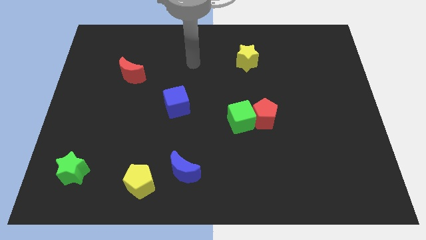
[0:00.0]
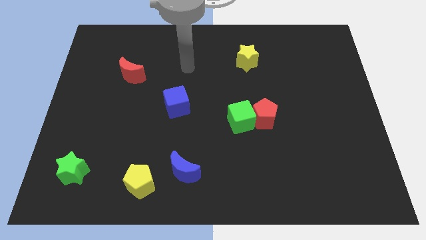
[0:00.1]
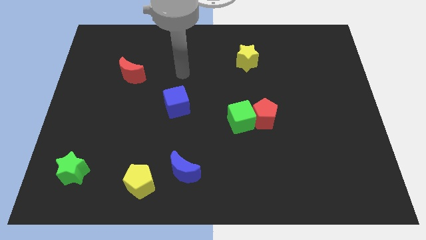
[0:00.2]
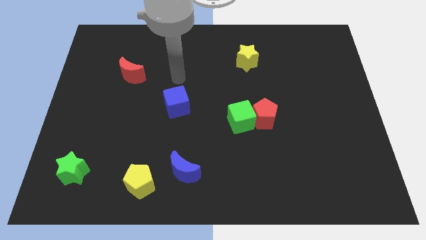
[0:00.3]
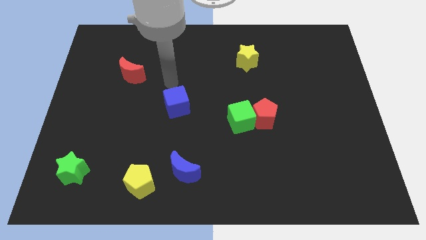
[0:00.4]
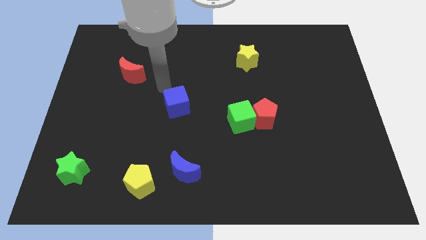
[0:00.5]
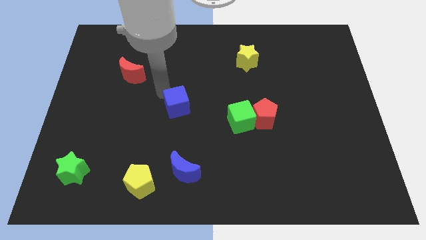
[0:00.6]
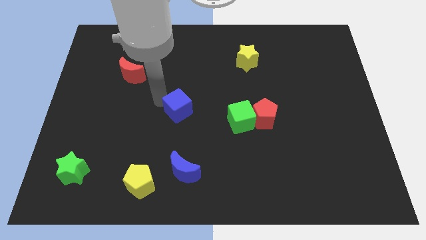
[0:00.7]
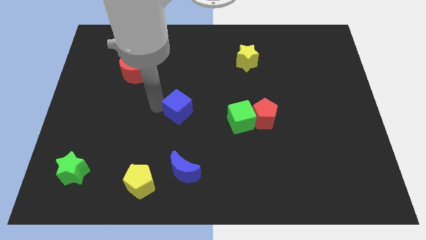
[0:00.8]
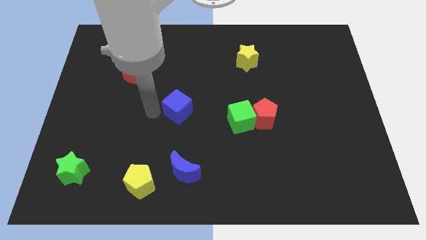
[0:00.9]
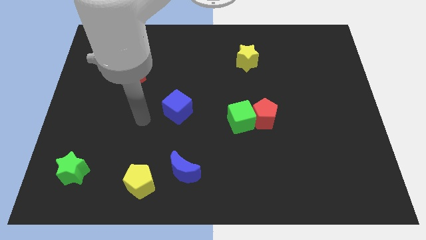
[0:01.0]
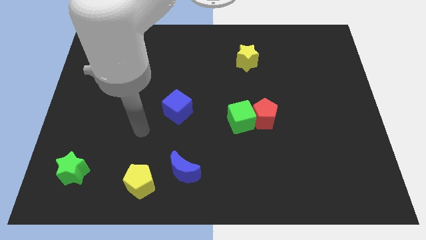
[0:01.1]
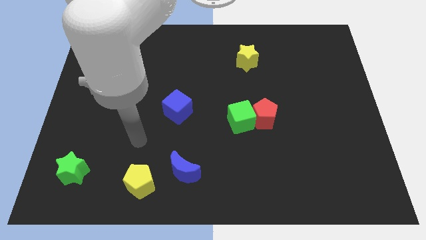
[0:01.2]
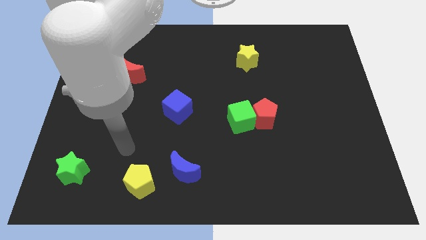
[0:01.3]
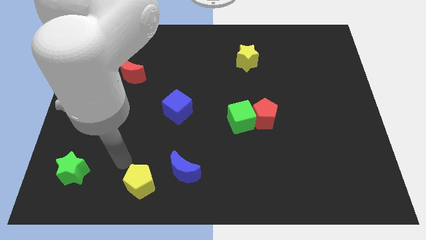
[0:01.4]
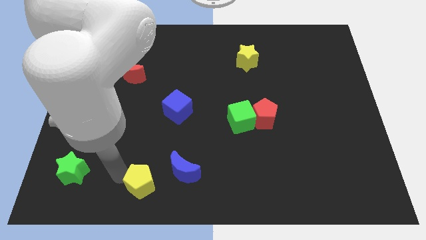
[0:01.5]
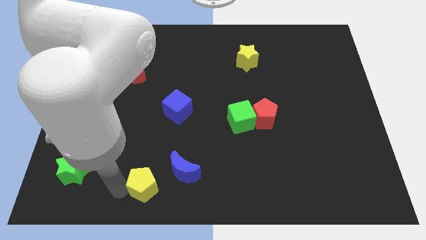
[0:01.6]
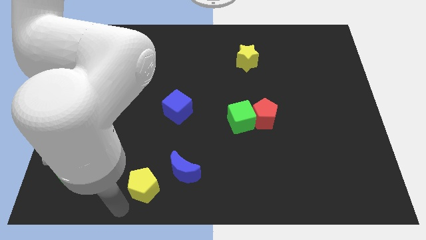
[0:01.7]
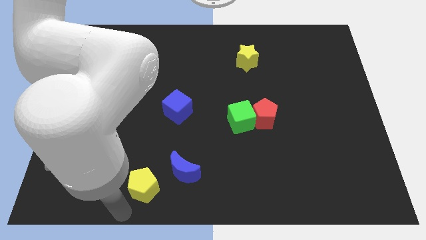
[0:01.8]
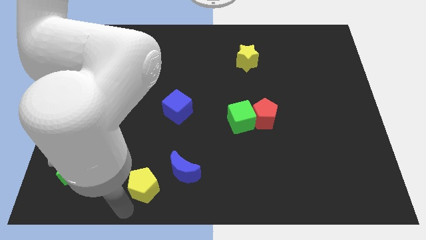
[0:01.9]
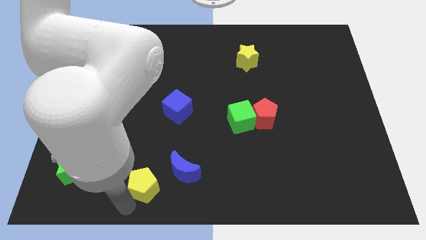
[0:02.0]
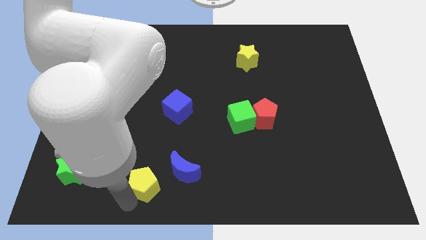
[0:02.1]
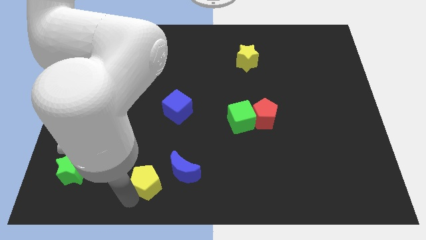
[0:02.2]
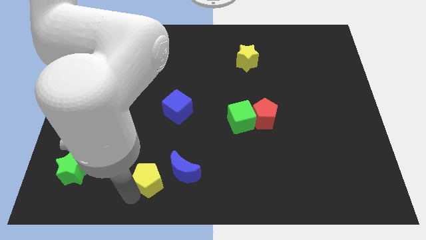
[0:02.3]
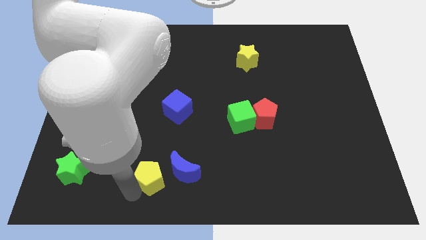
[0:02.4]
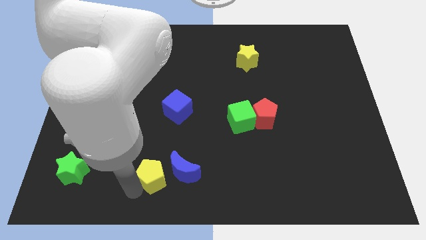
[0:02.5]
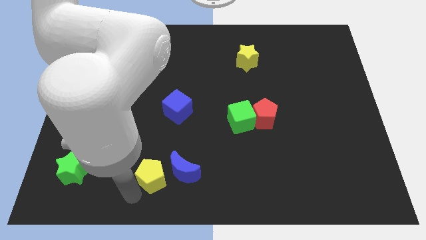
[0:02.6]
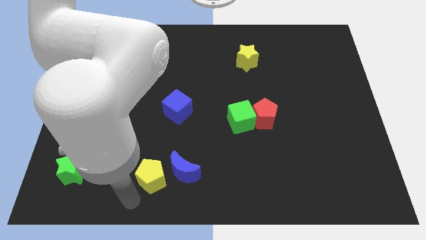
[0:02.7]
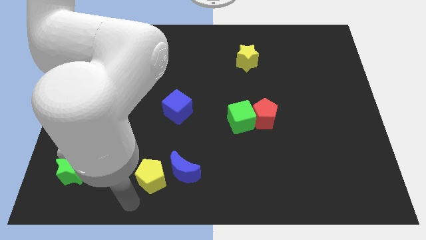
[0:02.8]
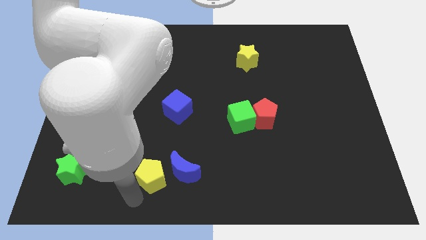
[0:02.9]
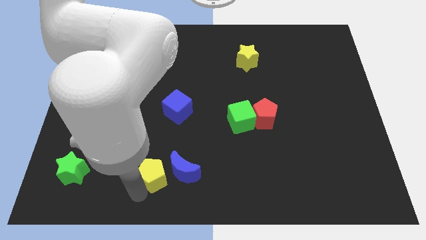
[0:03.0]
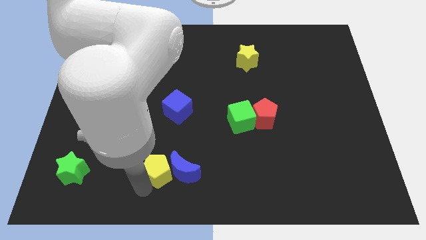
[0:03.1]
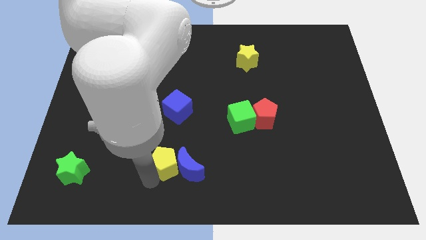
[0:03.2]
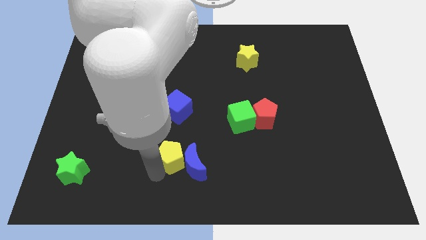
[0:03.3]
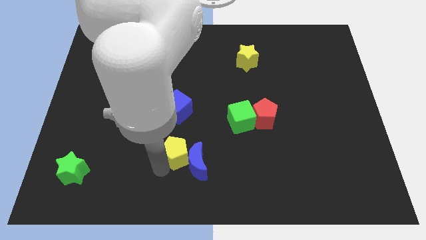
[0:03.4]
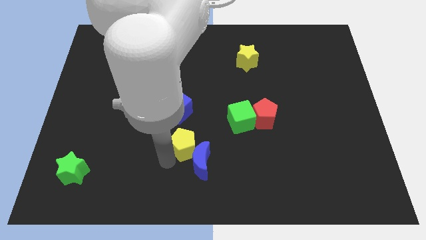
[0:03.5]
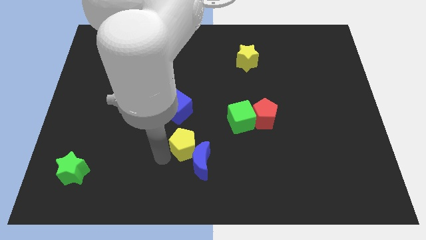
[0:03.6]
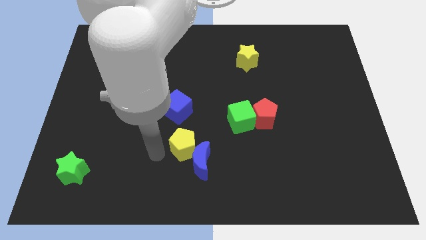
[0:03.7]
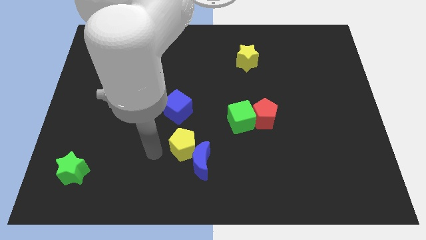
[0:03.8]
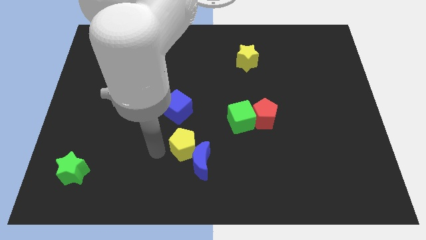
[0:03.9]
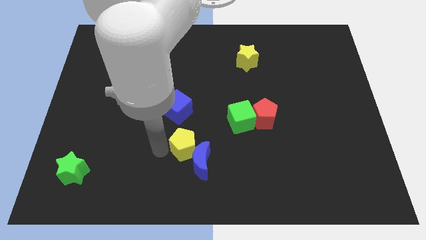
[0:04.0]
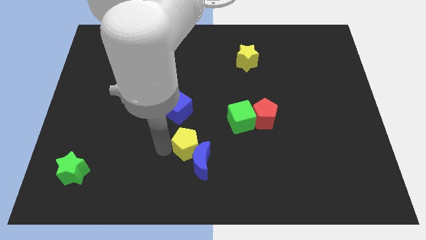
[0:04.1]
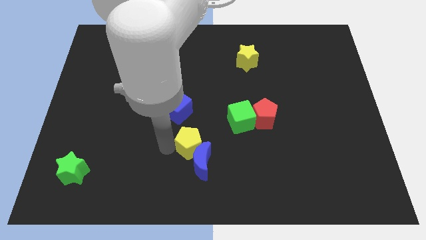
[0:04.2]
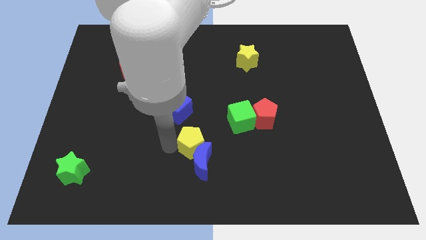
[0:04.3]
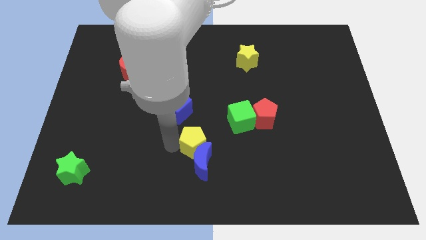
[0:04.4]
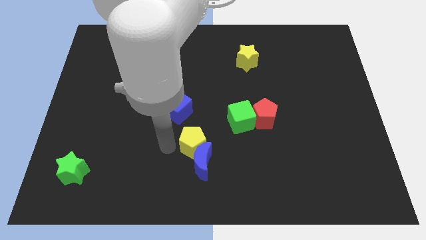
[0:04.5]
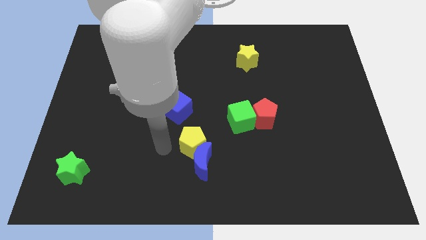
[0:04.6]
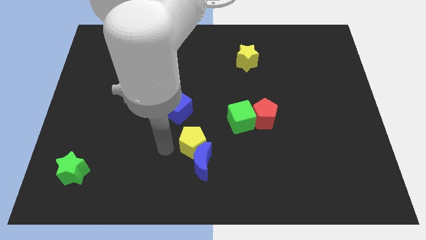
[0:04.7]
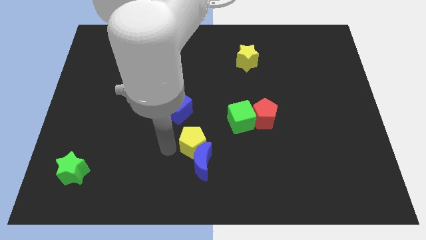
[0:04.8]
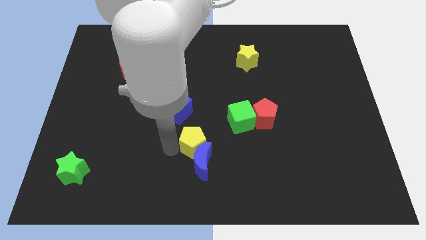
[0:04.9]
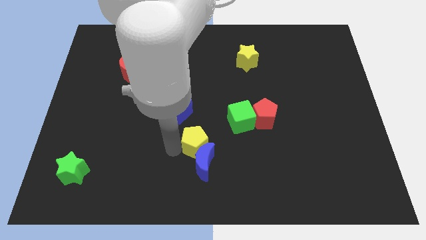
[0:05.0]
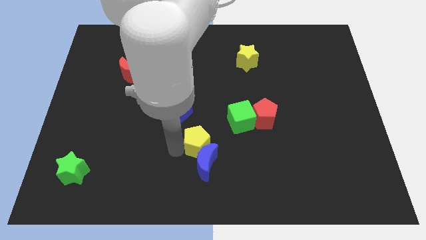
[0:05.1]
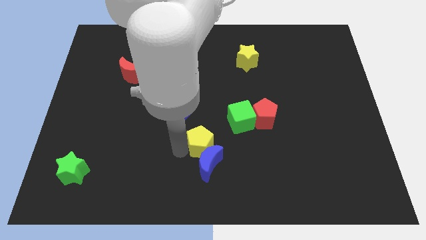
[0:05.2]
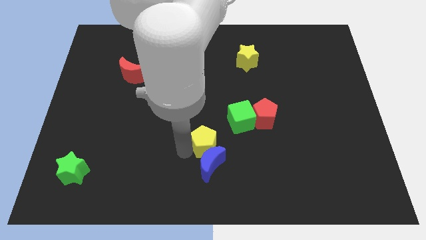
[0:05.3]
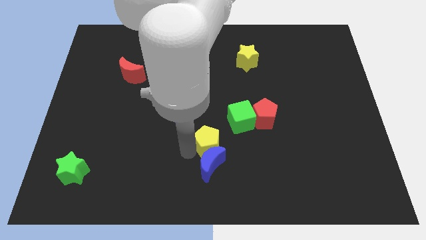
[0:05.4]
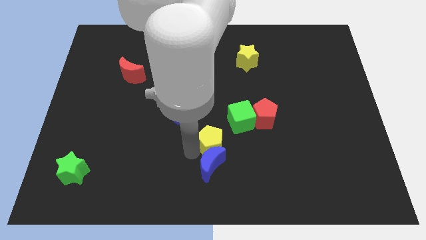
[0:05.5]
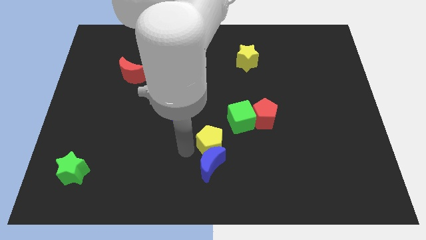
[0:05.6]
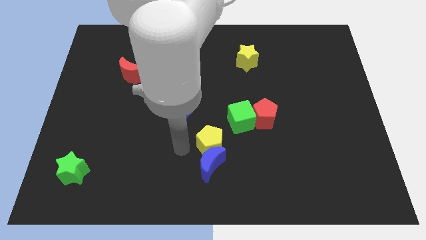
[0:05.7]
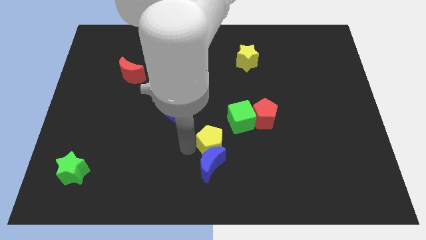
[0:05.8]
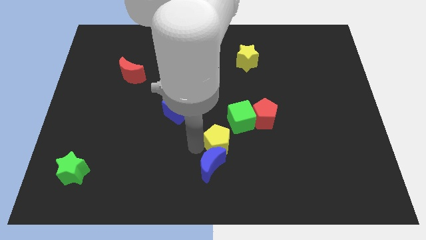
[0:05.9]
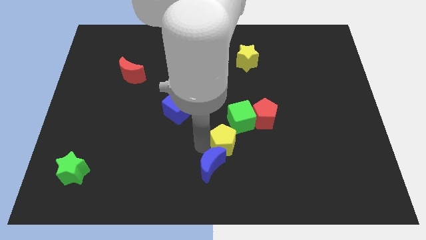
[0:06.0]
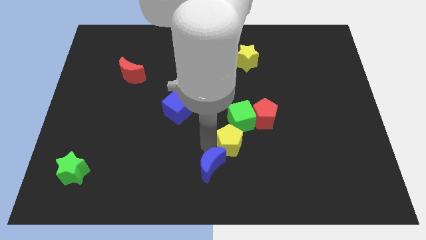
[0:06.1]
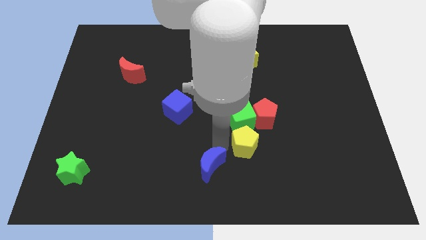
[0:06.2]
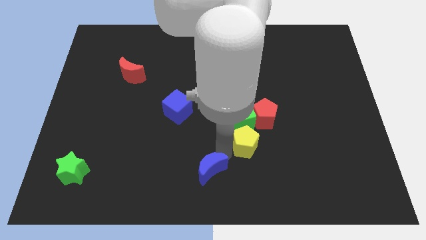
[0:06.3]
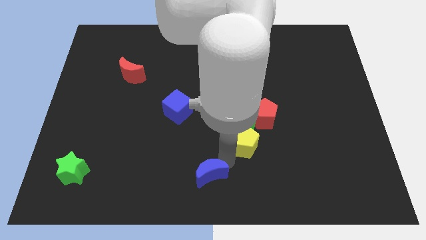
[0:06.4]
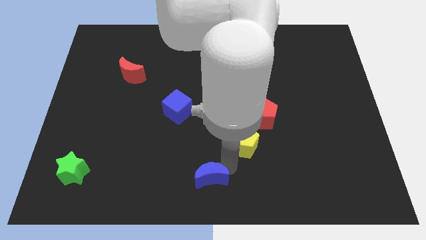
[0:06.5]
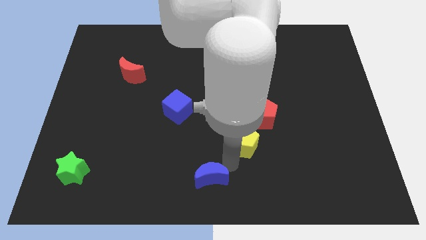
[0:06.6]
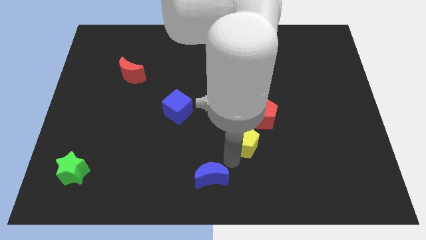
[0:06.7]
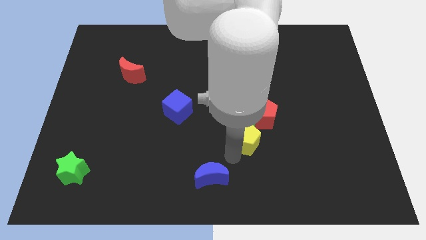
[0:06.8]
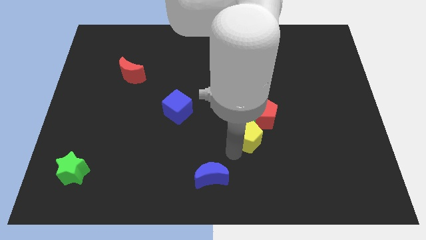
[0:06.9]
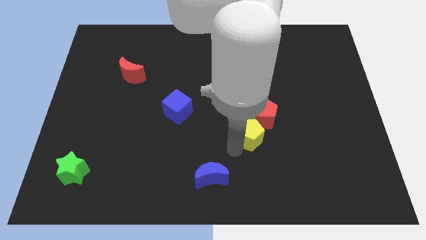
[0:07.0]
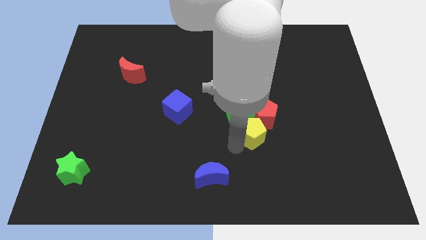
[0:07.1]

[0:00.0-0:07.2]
slide the yellow pentagon close to the red pentagon

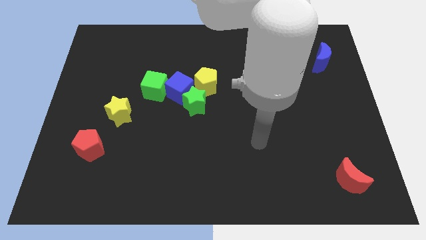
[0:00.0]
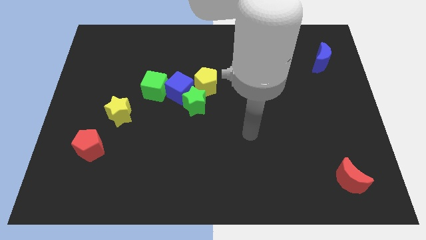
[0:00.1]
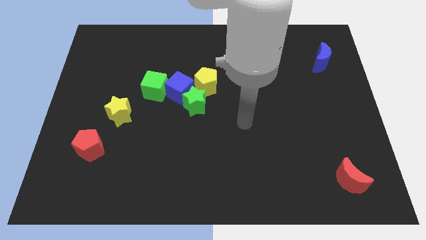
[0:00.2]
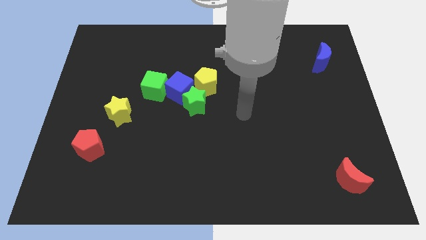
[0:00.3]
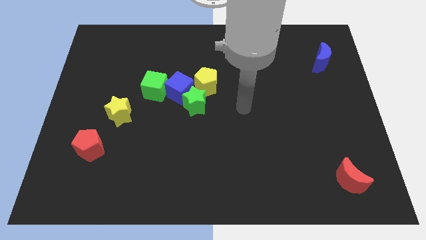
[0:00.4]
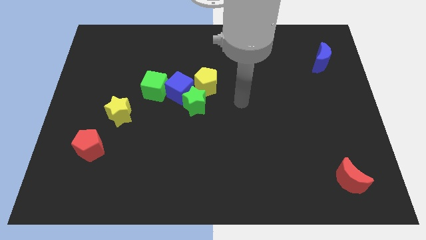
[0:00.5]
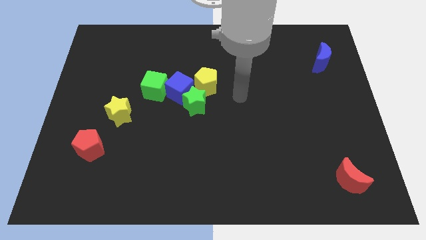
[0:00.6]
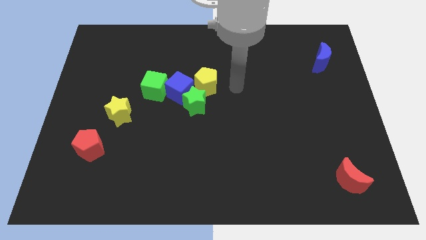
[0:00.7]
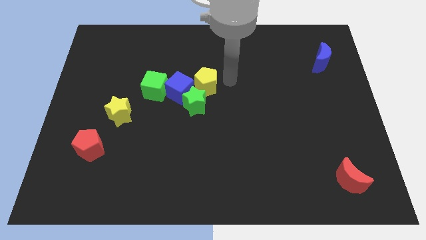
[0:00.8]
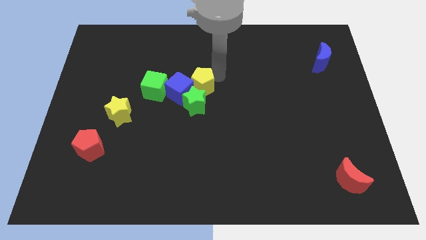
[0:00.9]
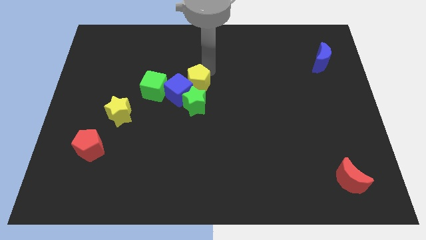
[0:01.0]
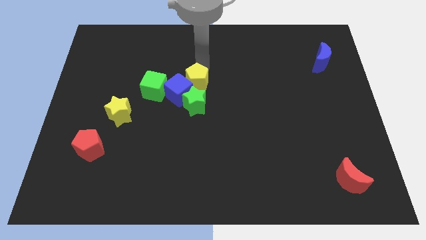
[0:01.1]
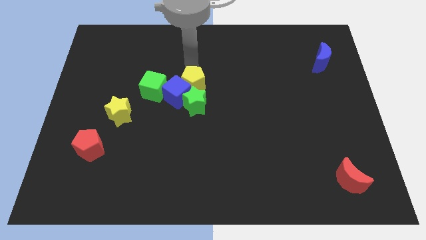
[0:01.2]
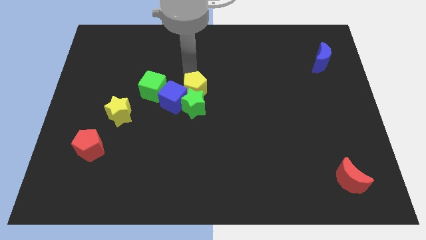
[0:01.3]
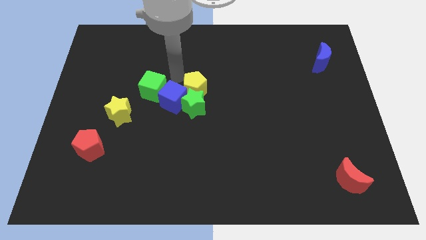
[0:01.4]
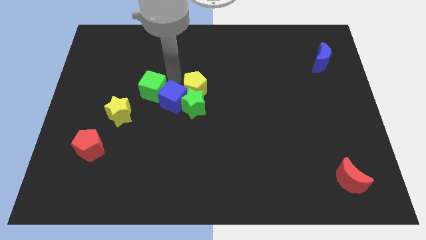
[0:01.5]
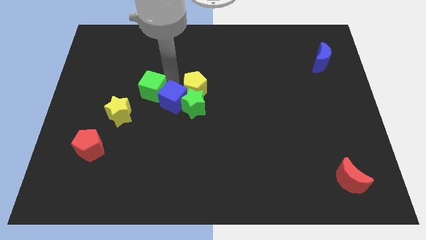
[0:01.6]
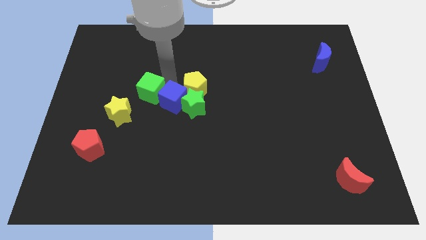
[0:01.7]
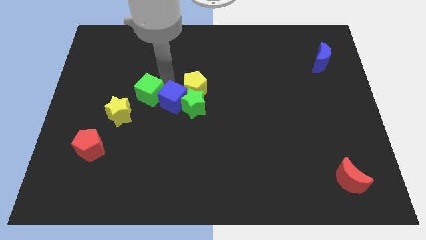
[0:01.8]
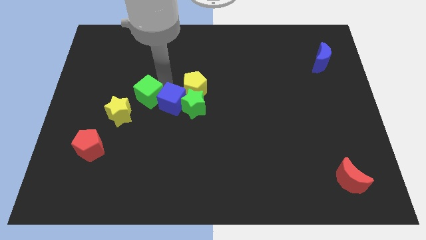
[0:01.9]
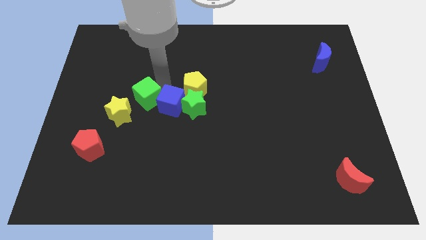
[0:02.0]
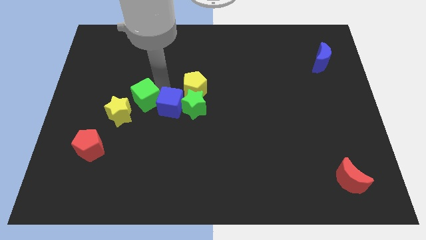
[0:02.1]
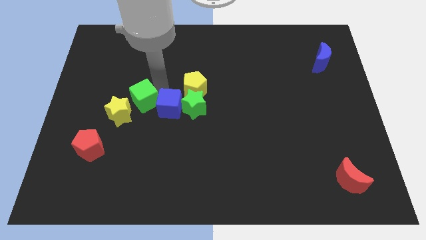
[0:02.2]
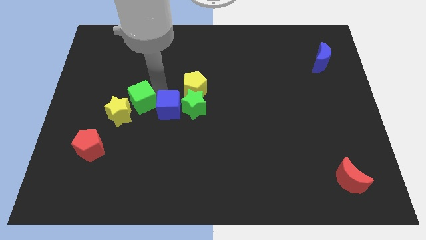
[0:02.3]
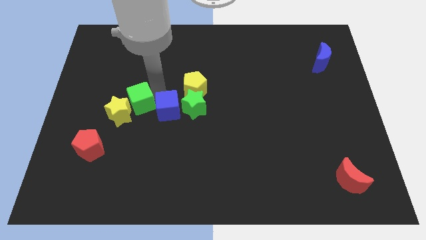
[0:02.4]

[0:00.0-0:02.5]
push the green cube to the yellow star
